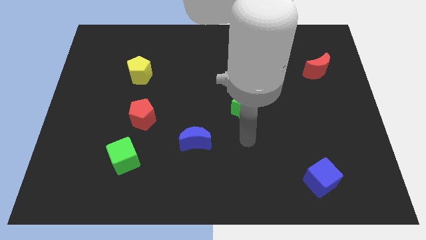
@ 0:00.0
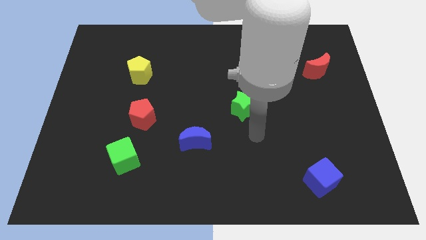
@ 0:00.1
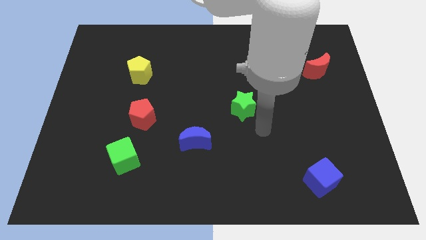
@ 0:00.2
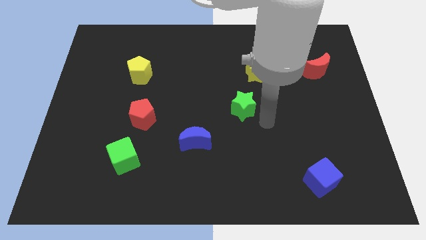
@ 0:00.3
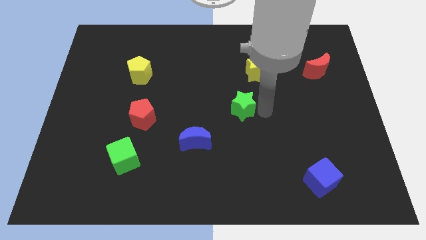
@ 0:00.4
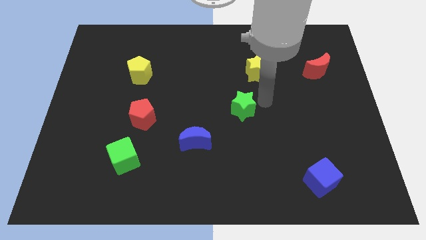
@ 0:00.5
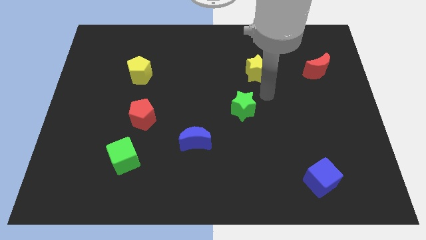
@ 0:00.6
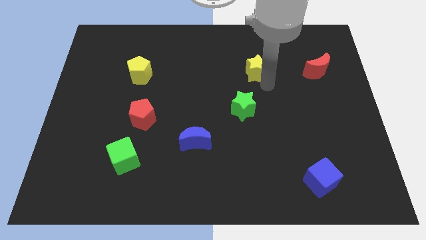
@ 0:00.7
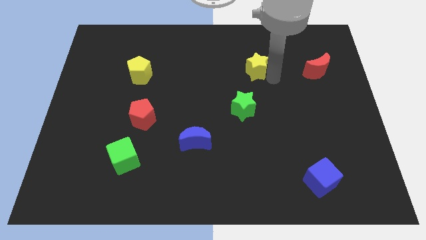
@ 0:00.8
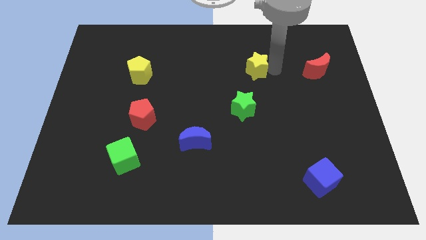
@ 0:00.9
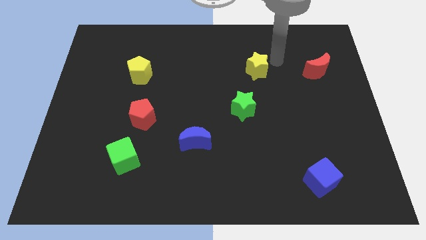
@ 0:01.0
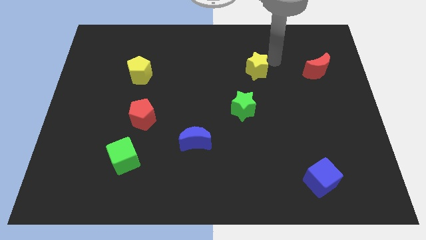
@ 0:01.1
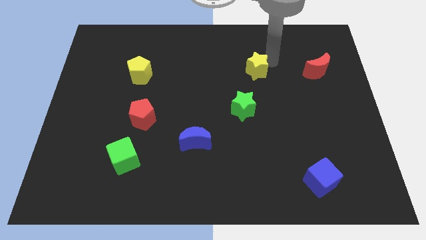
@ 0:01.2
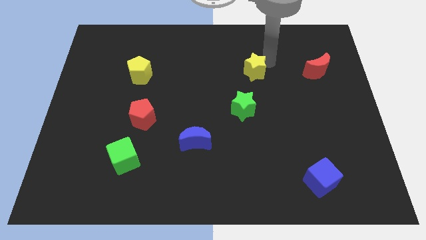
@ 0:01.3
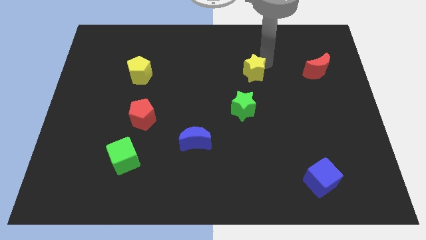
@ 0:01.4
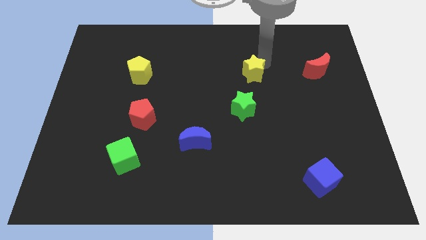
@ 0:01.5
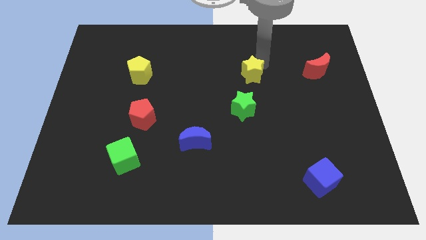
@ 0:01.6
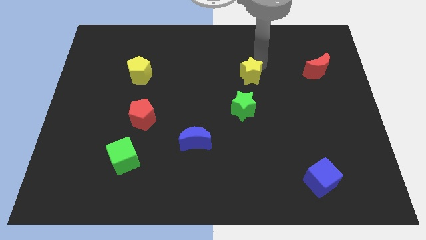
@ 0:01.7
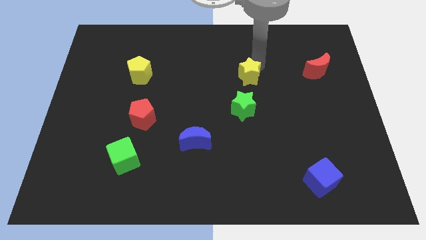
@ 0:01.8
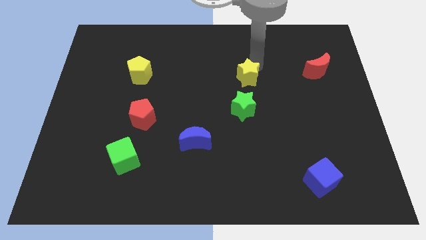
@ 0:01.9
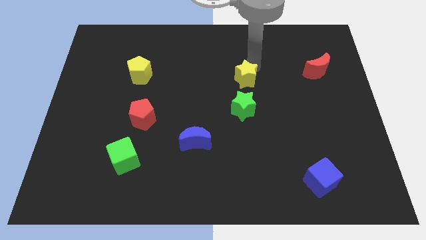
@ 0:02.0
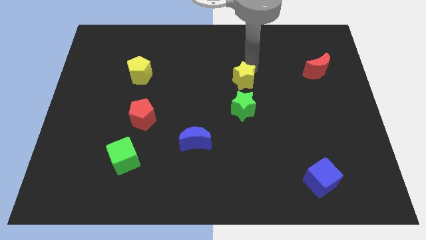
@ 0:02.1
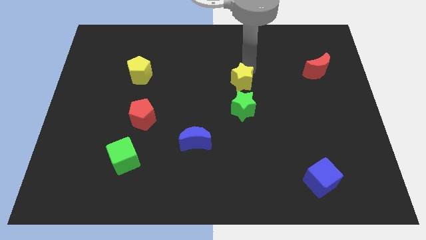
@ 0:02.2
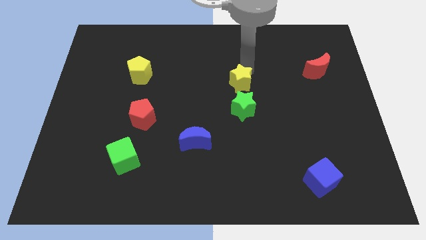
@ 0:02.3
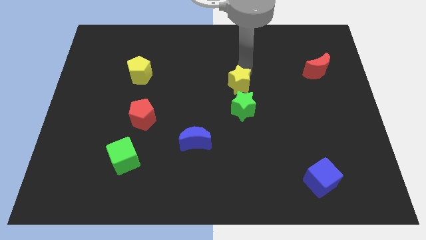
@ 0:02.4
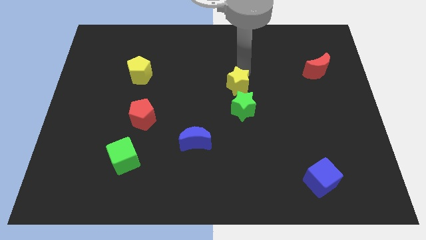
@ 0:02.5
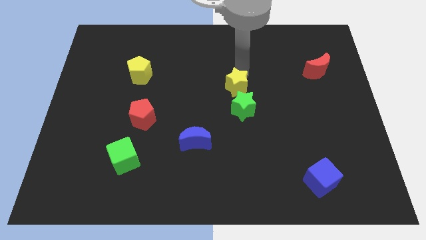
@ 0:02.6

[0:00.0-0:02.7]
push the yellow star a little down and to the left diagonally

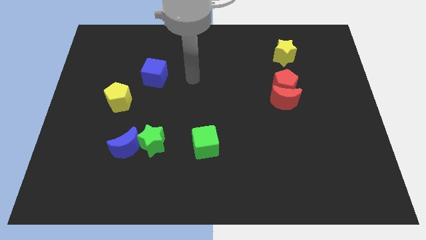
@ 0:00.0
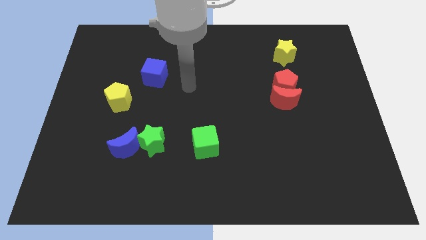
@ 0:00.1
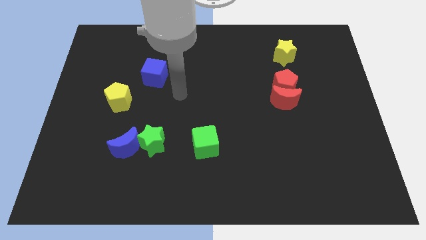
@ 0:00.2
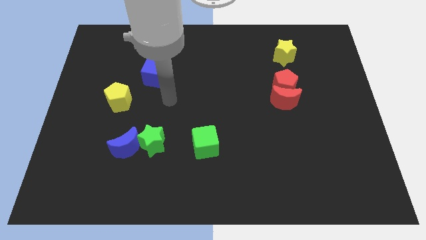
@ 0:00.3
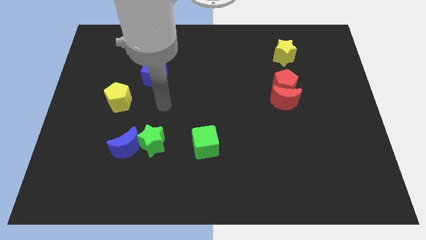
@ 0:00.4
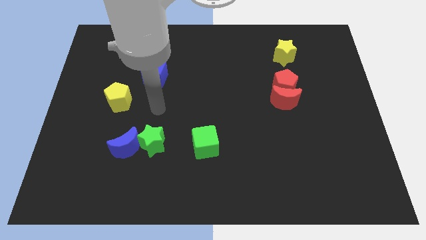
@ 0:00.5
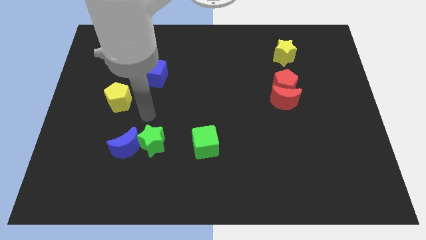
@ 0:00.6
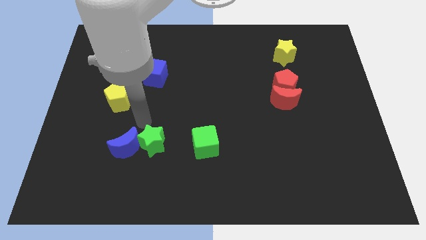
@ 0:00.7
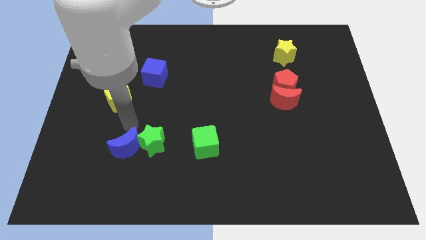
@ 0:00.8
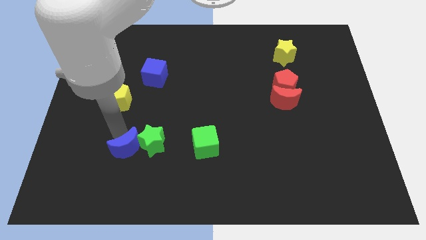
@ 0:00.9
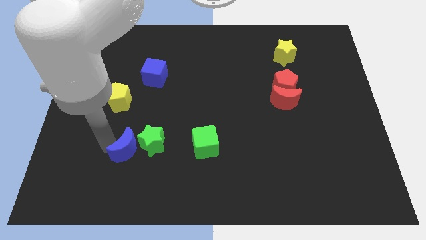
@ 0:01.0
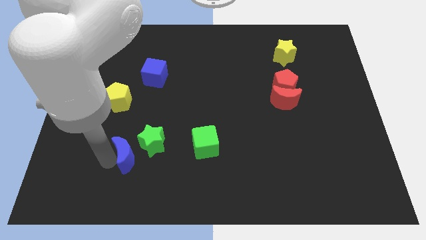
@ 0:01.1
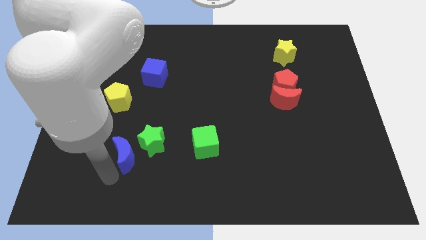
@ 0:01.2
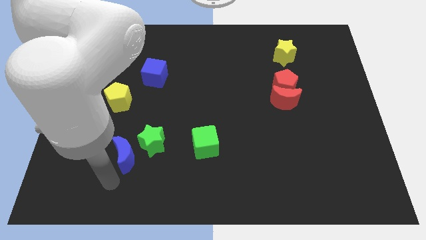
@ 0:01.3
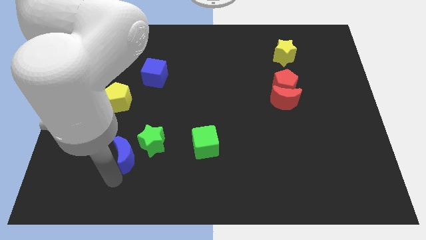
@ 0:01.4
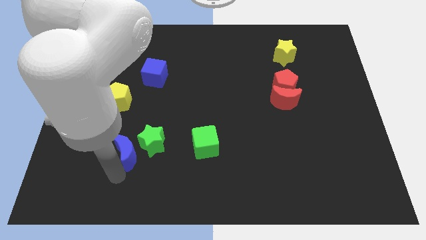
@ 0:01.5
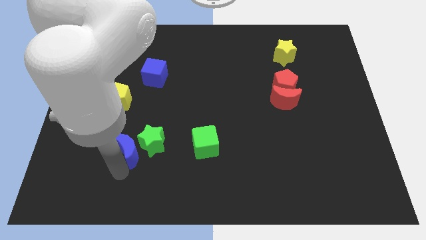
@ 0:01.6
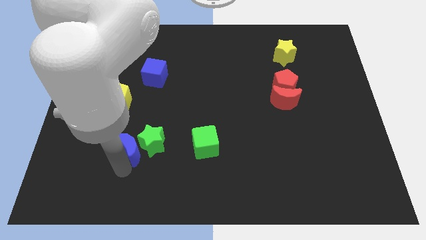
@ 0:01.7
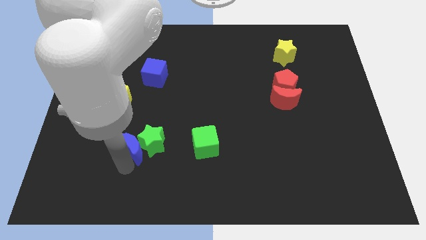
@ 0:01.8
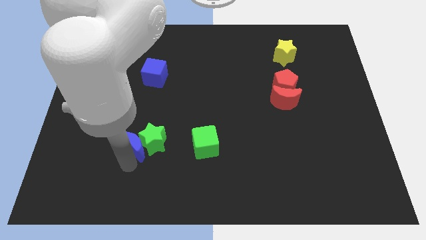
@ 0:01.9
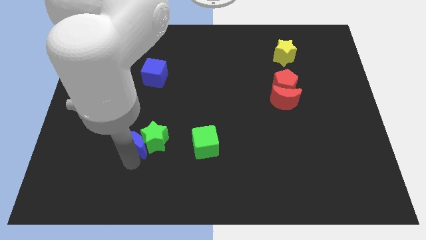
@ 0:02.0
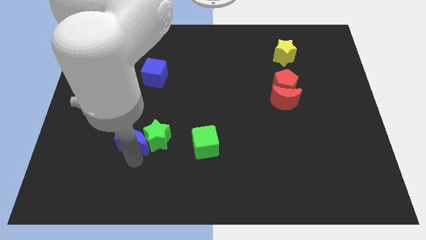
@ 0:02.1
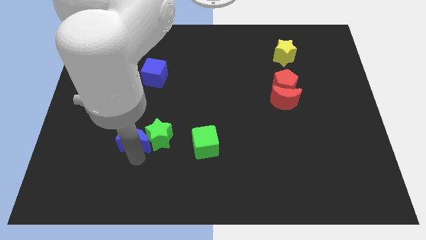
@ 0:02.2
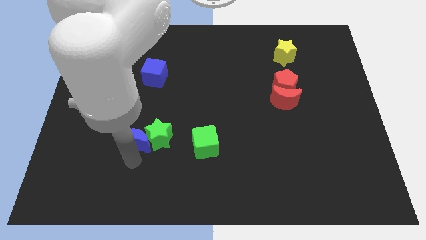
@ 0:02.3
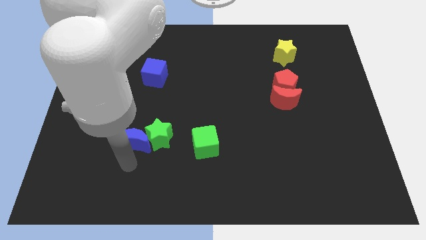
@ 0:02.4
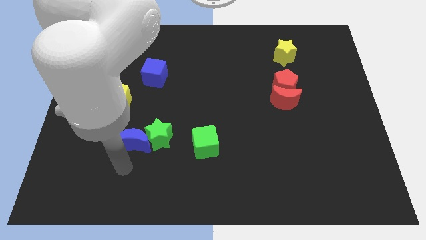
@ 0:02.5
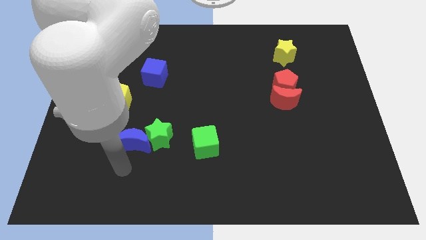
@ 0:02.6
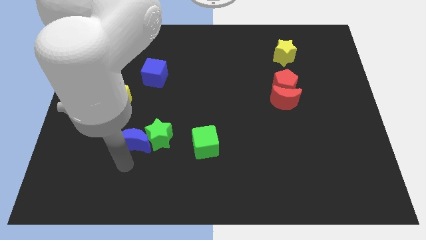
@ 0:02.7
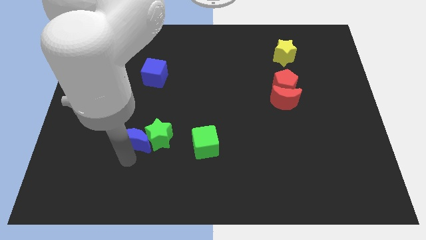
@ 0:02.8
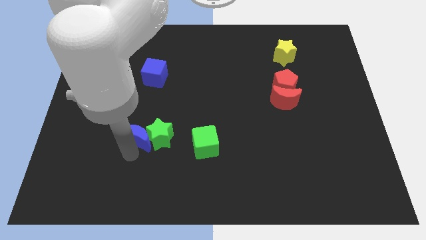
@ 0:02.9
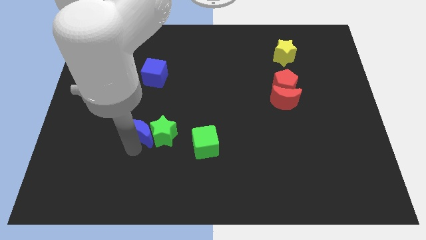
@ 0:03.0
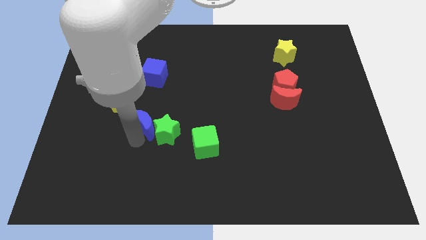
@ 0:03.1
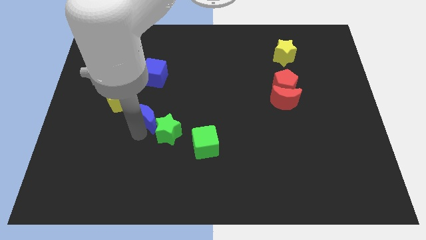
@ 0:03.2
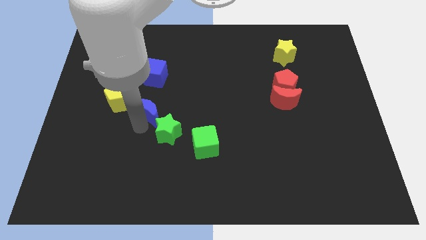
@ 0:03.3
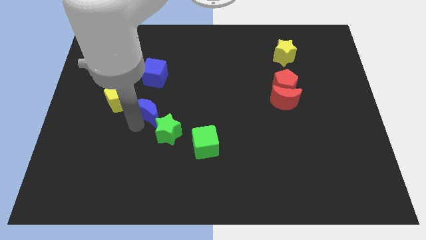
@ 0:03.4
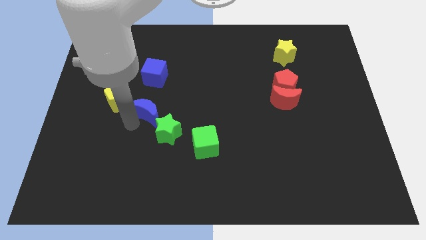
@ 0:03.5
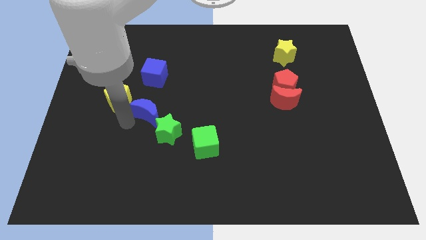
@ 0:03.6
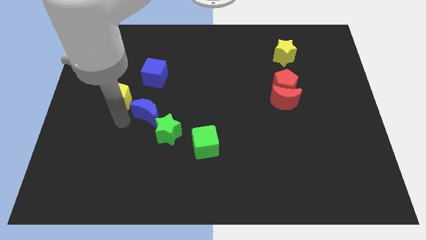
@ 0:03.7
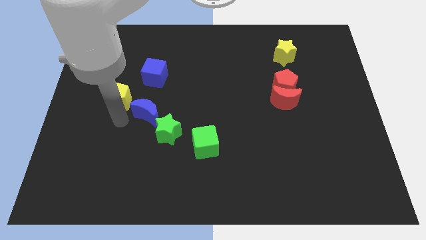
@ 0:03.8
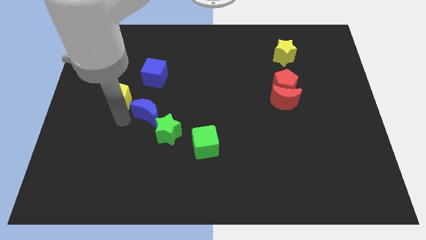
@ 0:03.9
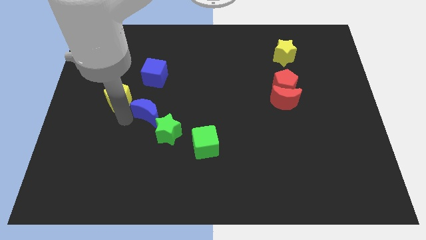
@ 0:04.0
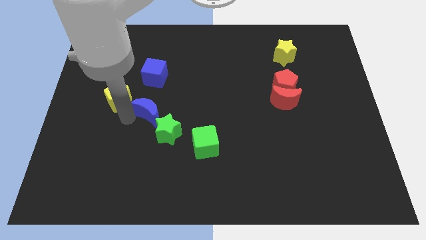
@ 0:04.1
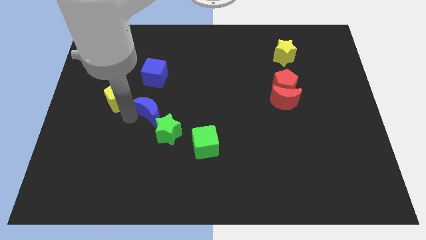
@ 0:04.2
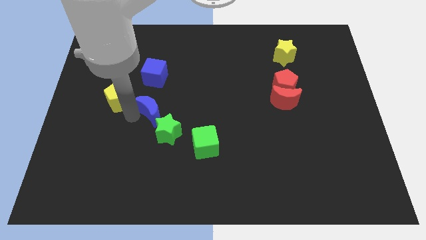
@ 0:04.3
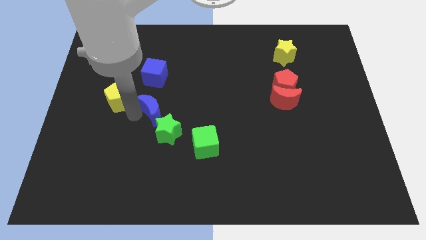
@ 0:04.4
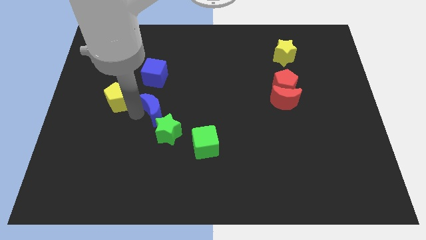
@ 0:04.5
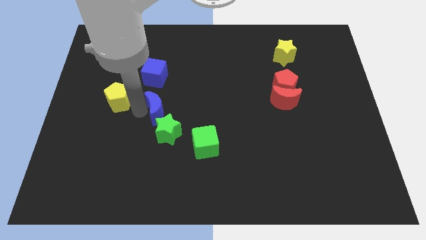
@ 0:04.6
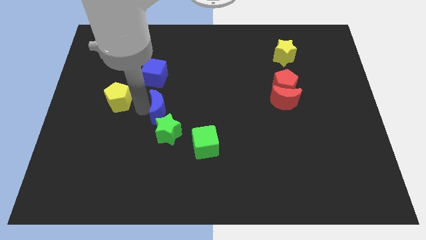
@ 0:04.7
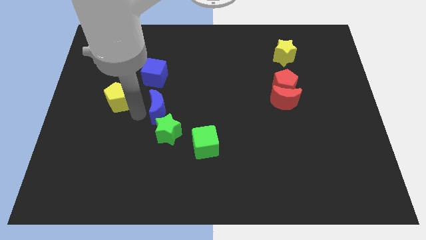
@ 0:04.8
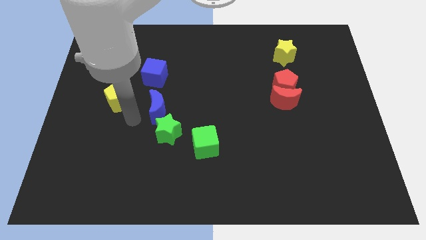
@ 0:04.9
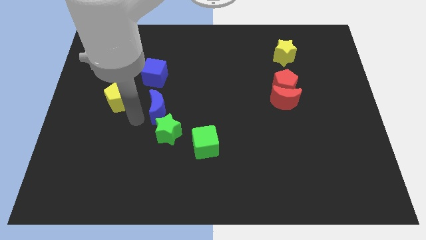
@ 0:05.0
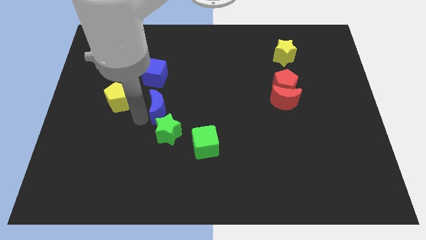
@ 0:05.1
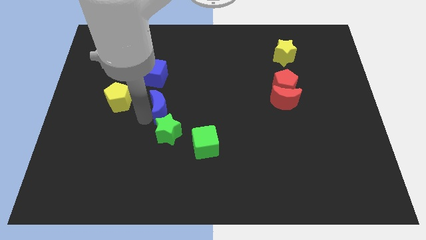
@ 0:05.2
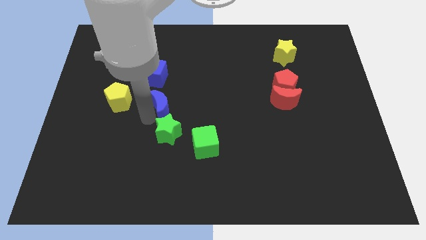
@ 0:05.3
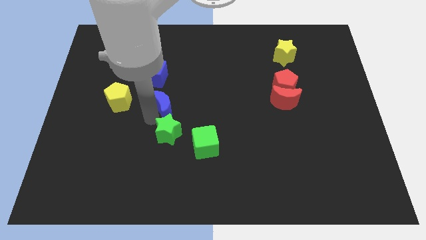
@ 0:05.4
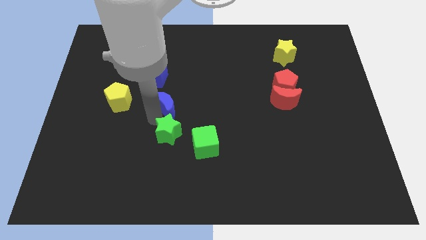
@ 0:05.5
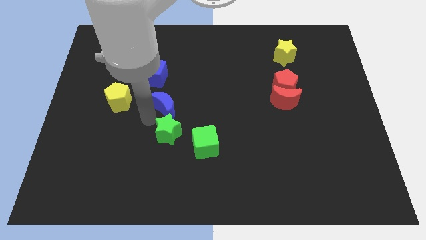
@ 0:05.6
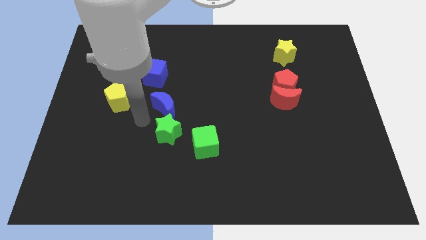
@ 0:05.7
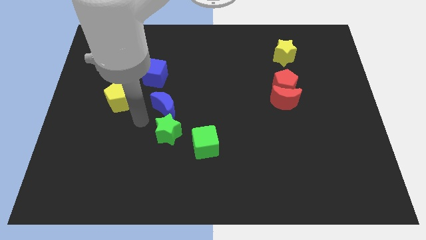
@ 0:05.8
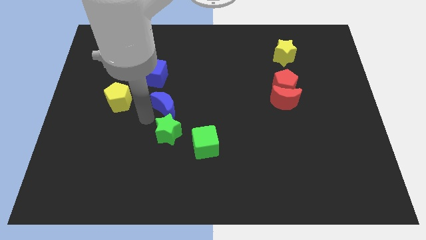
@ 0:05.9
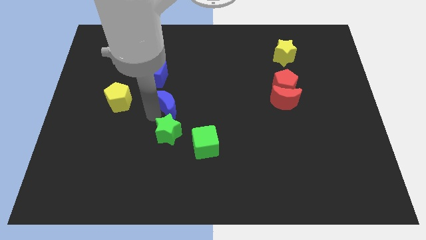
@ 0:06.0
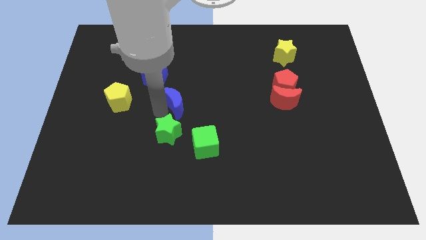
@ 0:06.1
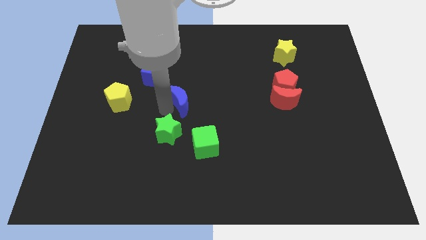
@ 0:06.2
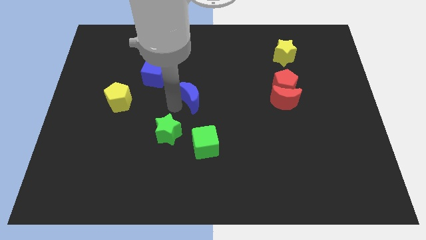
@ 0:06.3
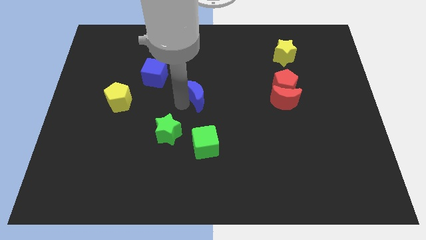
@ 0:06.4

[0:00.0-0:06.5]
move the blue moon upwards and right diagonally
